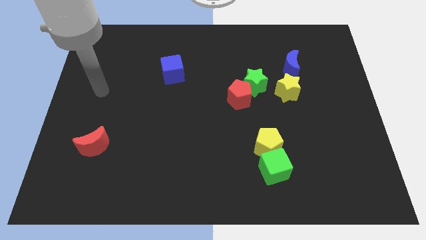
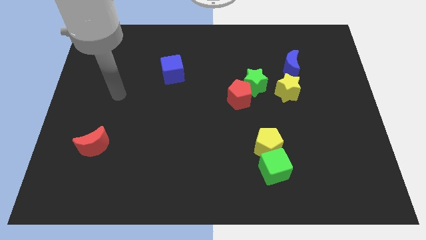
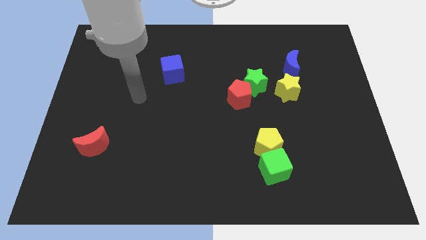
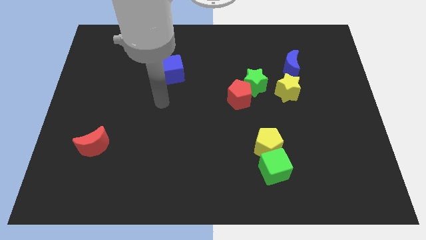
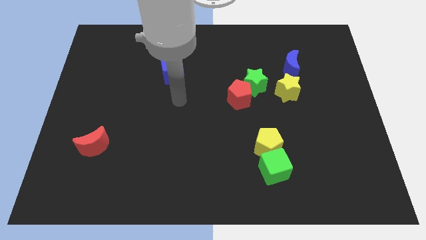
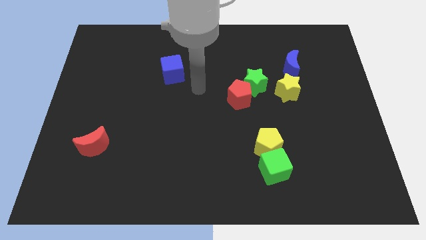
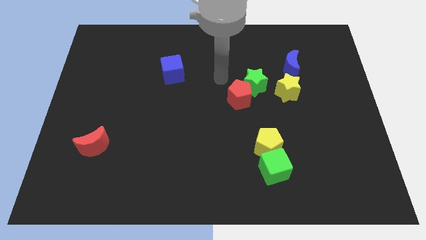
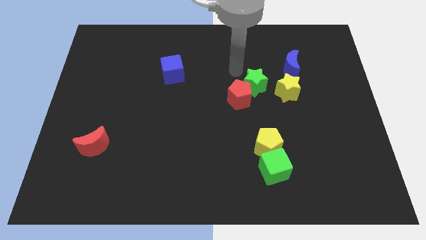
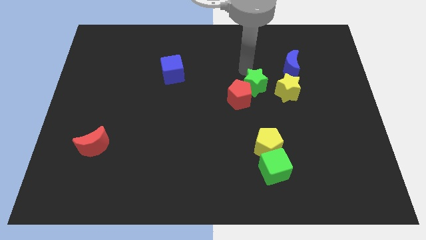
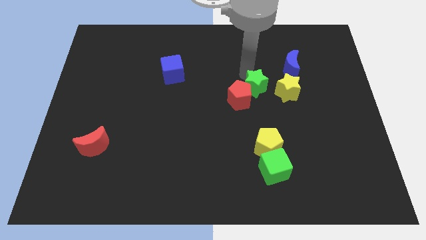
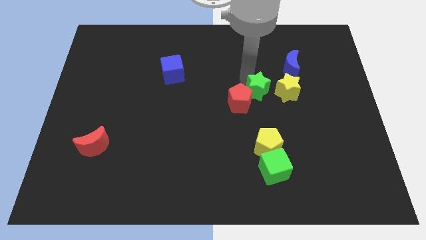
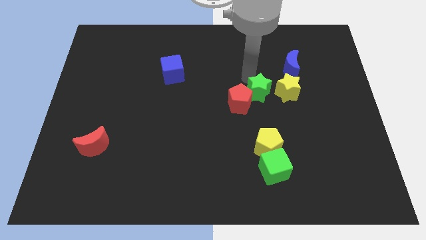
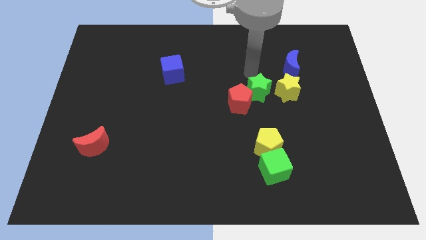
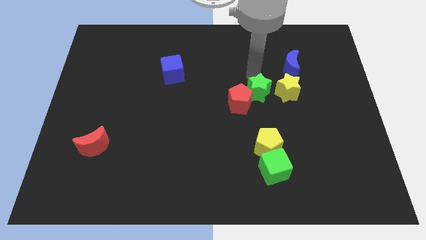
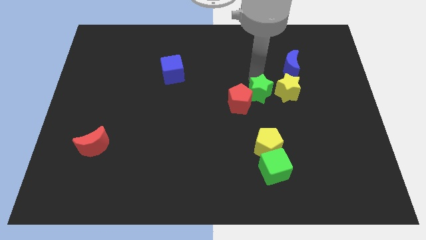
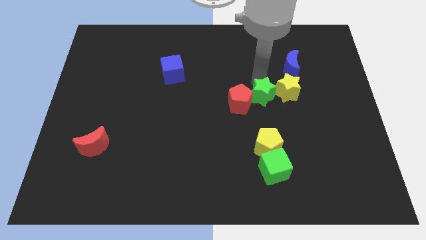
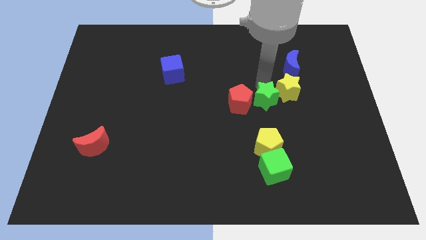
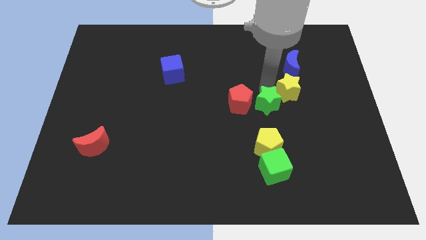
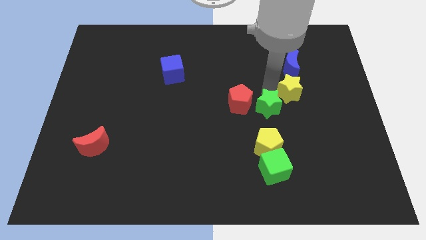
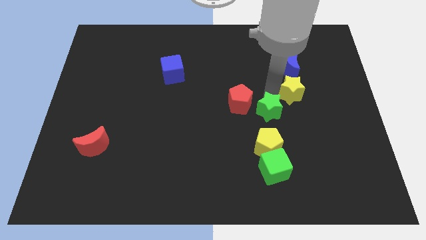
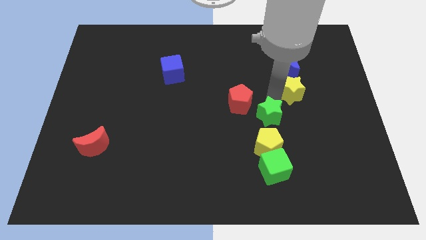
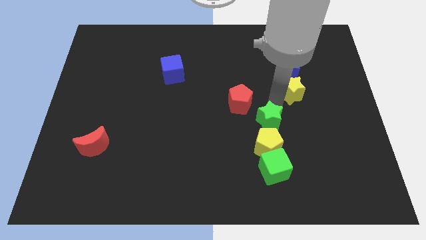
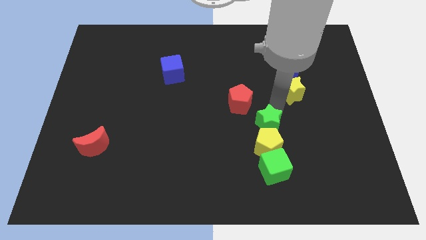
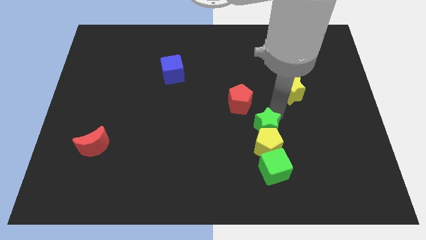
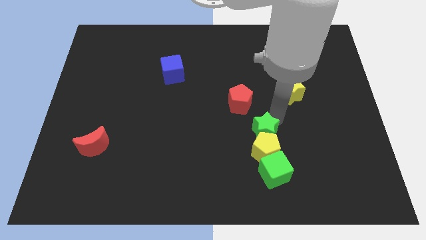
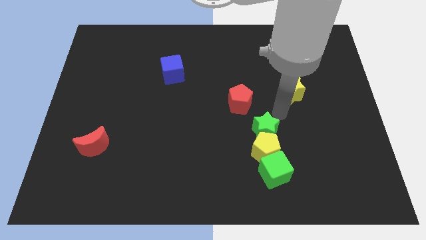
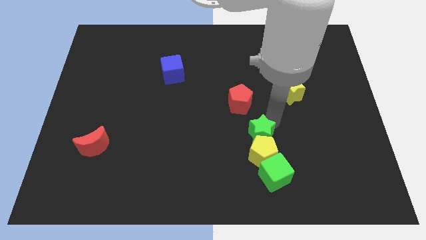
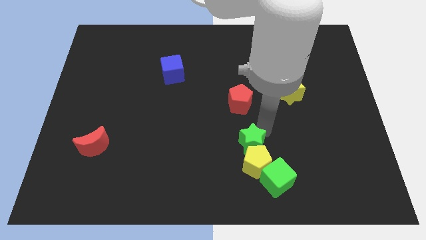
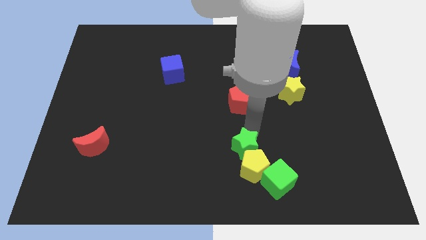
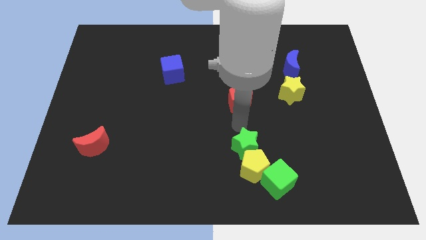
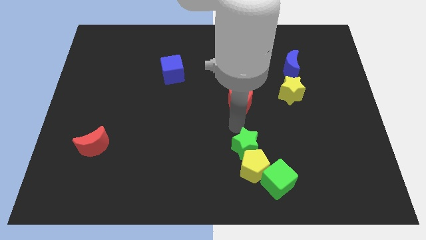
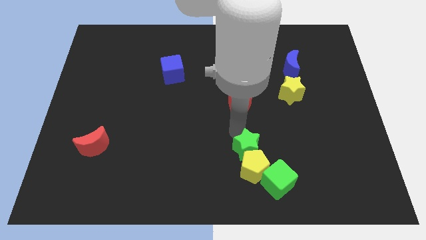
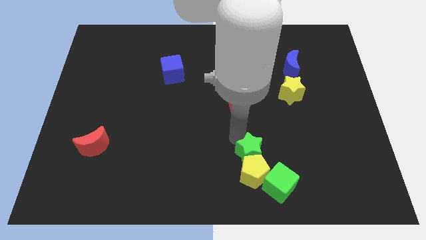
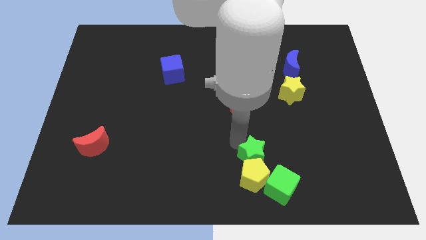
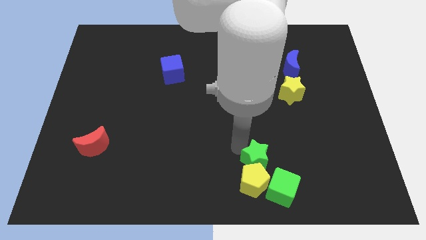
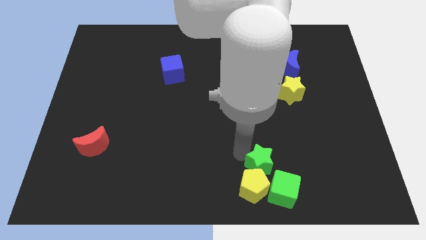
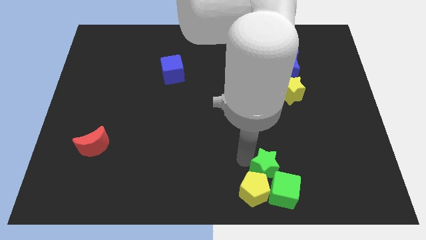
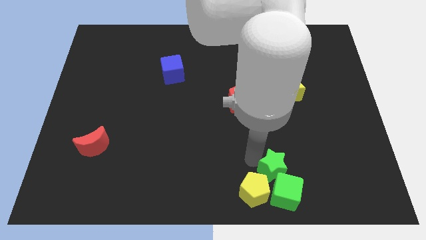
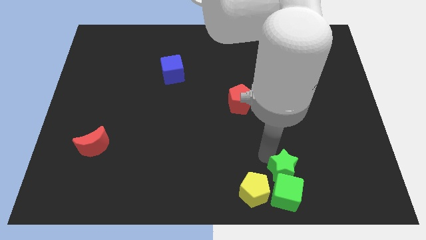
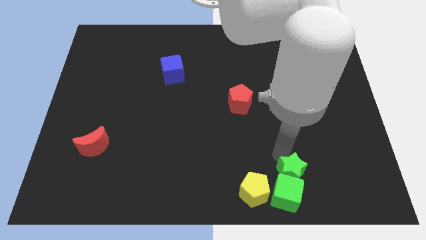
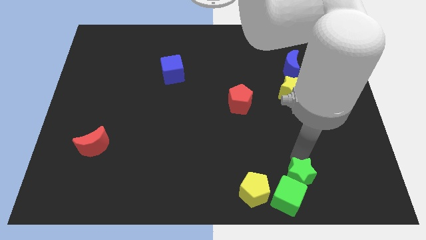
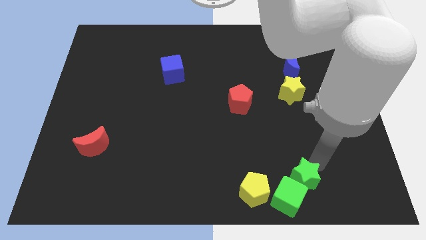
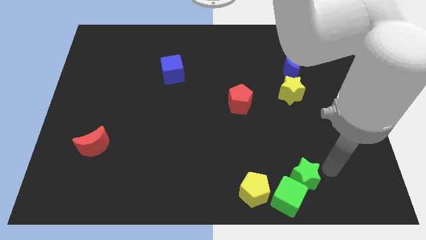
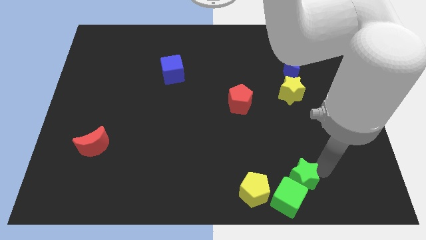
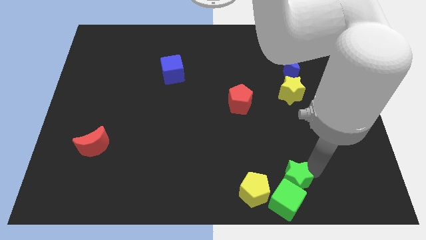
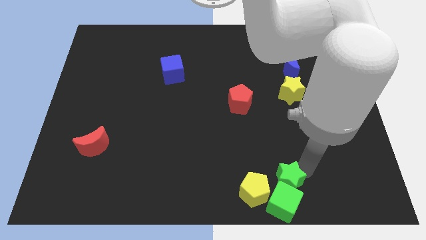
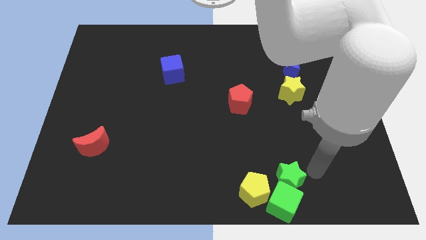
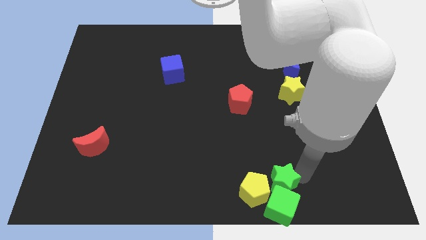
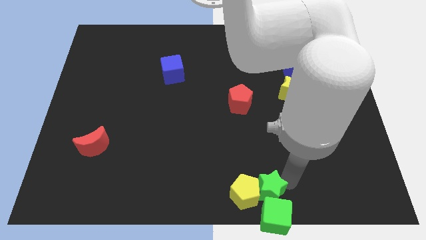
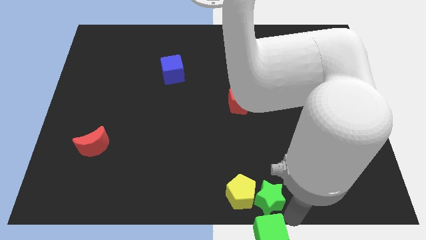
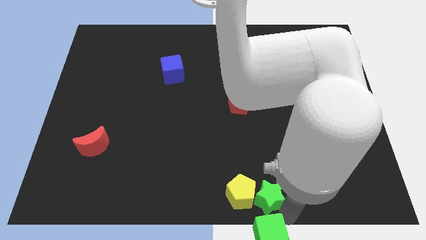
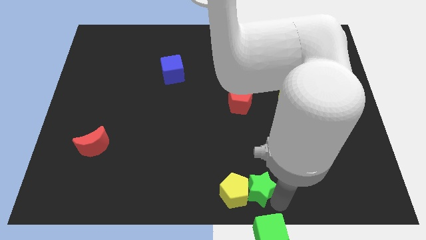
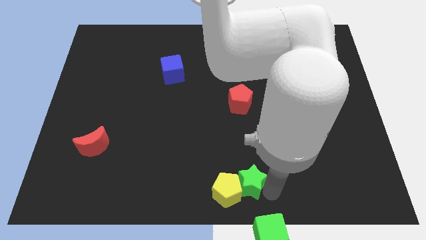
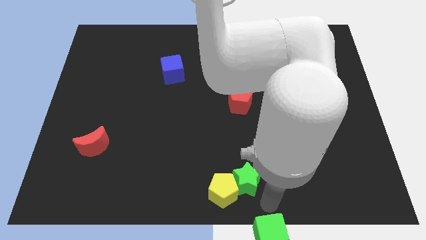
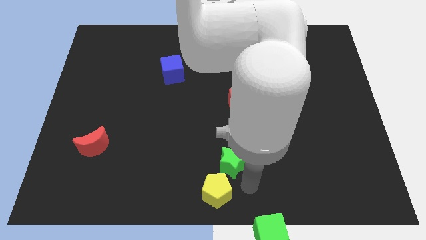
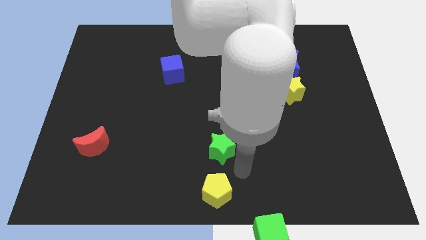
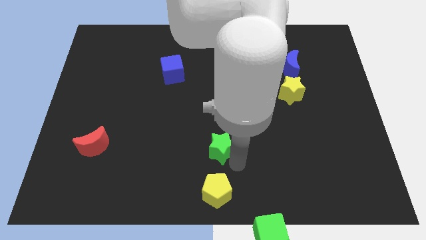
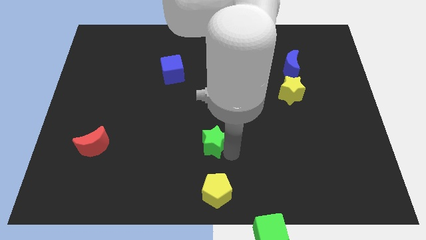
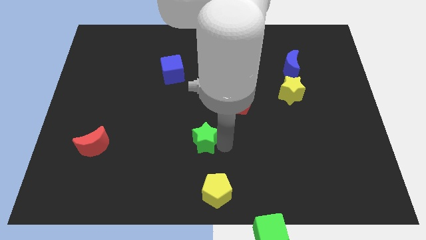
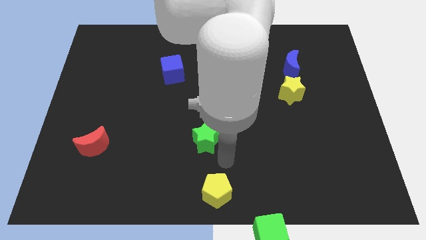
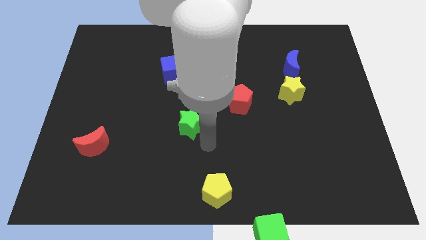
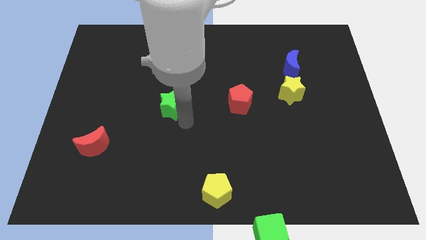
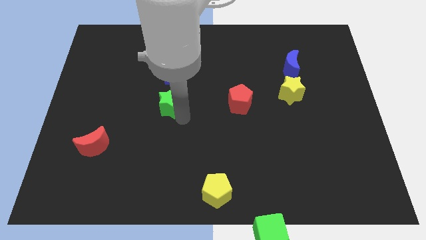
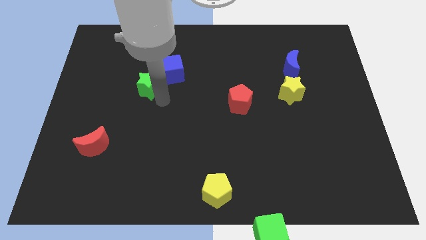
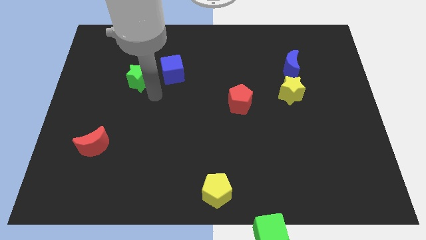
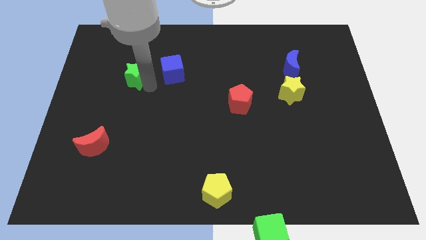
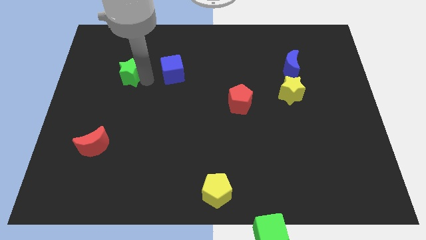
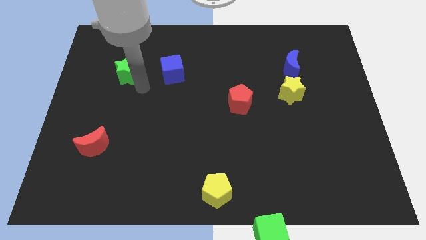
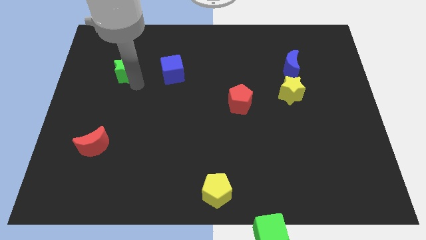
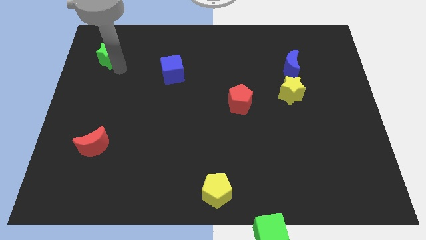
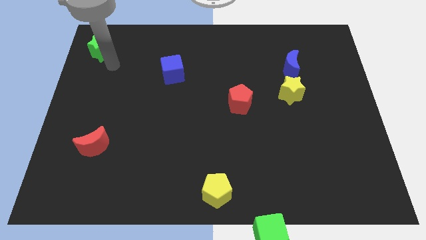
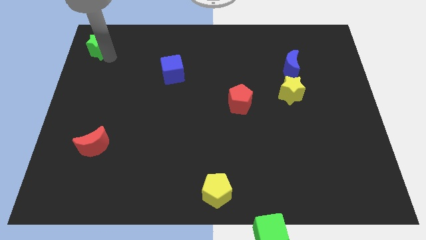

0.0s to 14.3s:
push the green star to the top left corner
